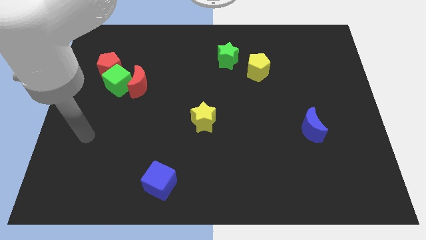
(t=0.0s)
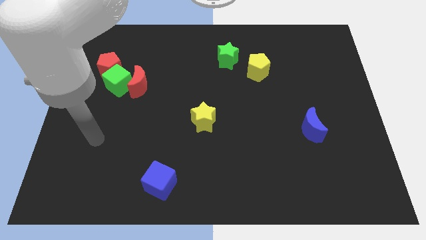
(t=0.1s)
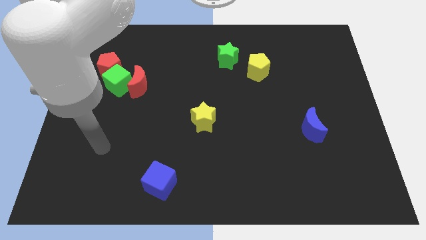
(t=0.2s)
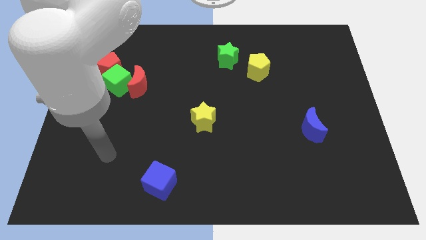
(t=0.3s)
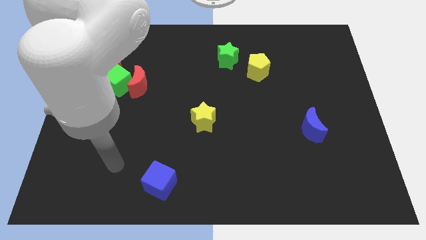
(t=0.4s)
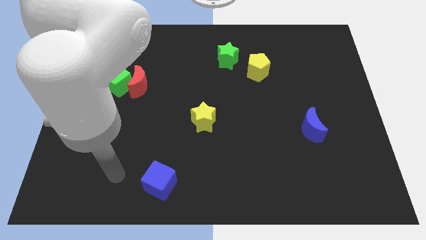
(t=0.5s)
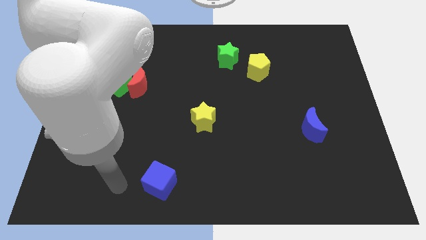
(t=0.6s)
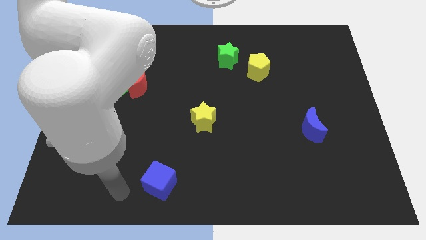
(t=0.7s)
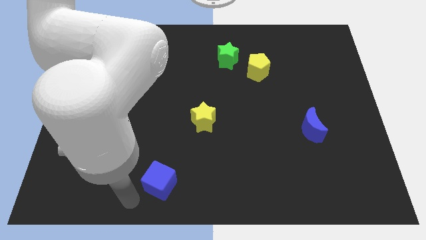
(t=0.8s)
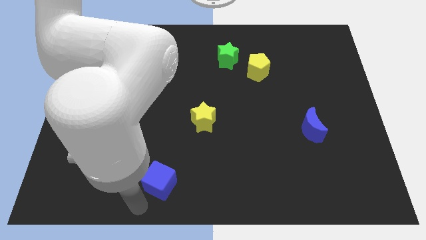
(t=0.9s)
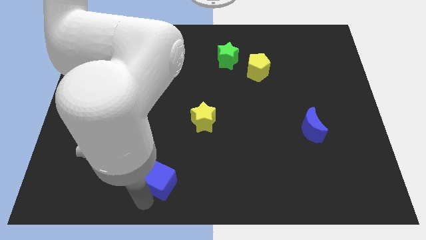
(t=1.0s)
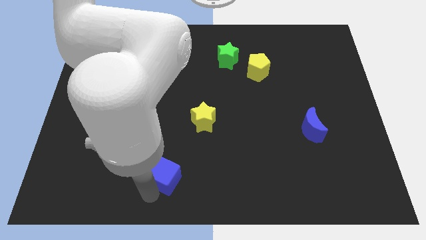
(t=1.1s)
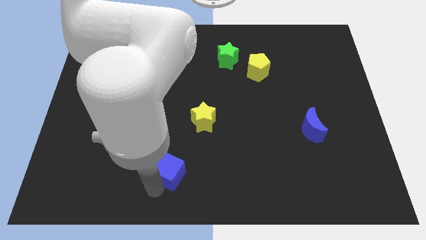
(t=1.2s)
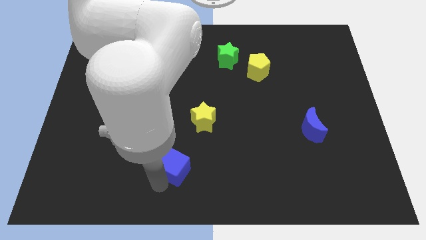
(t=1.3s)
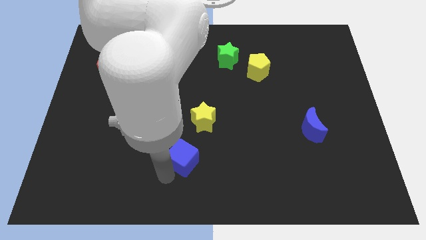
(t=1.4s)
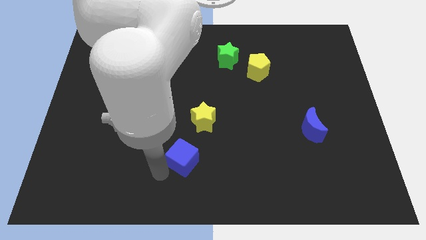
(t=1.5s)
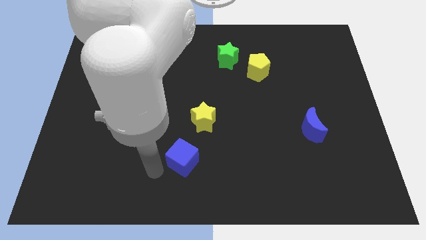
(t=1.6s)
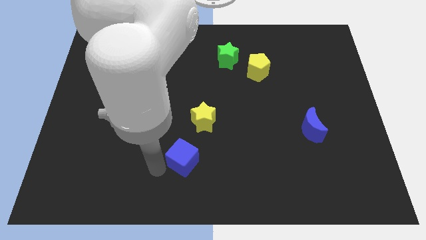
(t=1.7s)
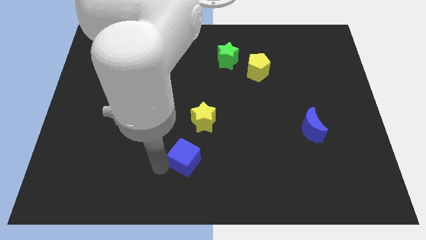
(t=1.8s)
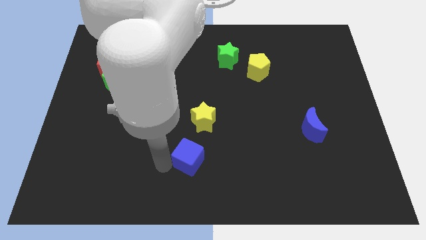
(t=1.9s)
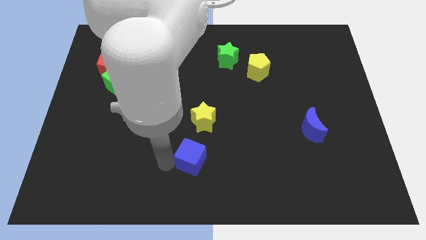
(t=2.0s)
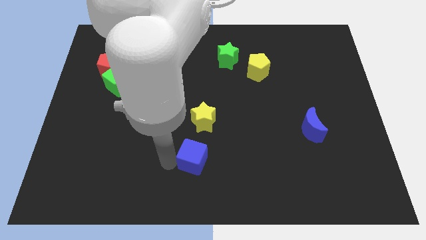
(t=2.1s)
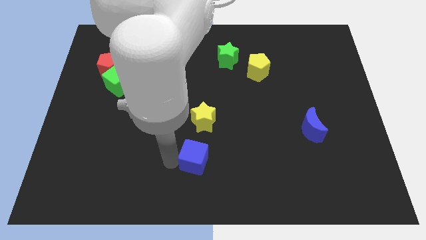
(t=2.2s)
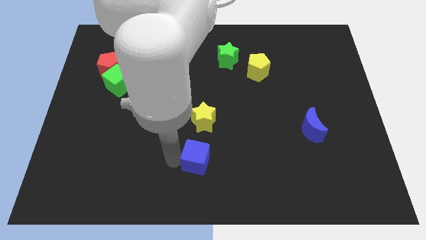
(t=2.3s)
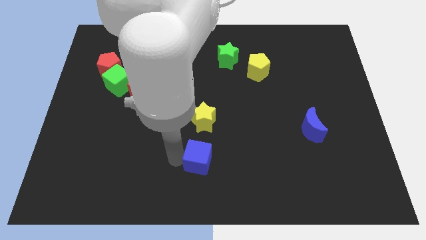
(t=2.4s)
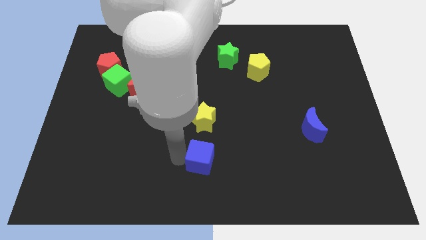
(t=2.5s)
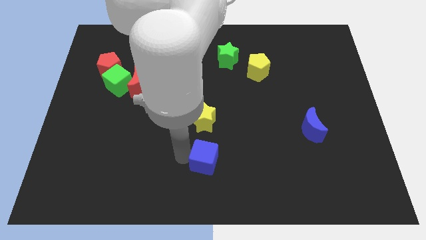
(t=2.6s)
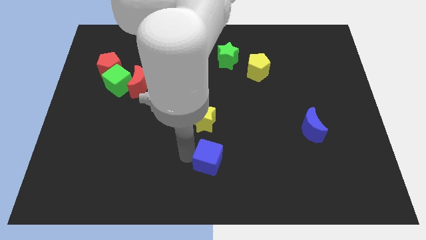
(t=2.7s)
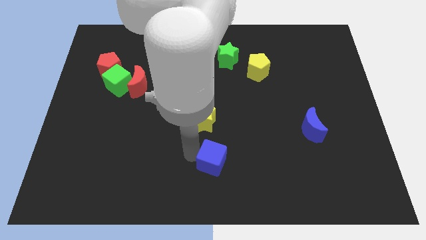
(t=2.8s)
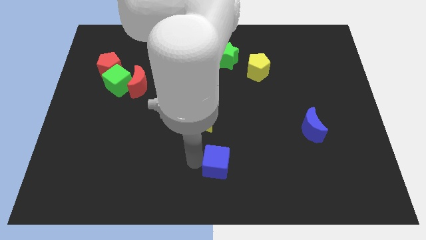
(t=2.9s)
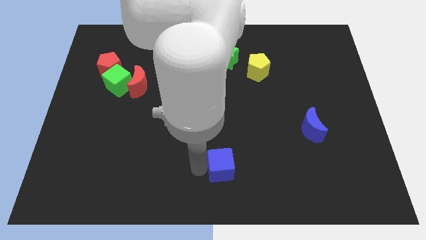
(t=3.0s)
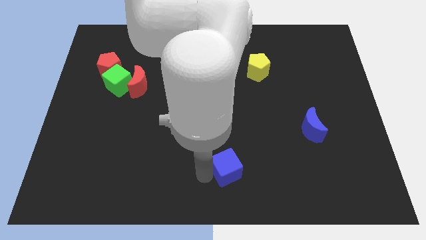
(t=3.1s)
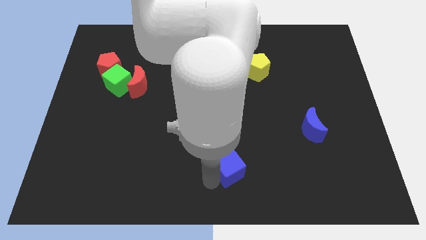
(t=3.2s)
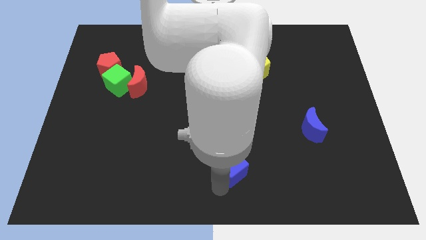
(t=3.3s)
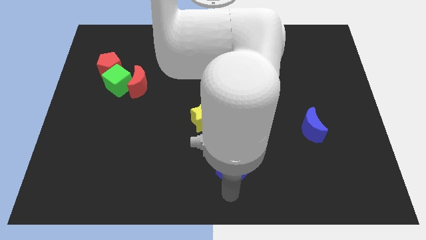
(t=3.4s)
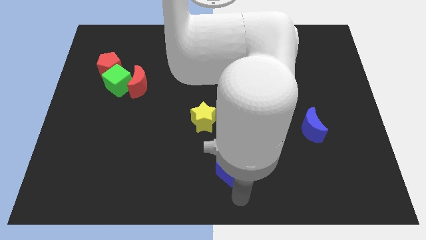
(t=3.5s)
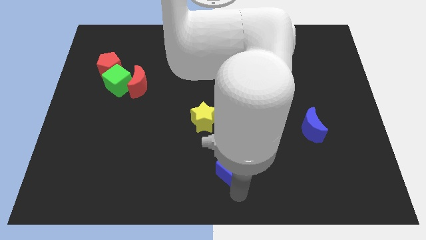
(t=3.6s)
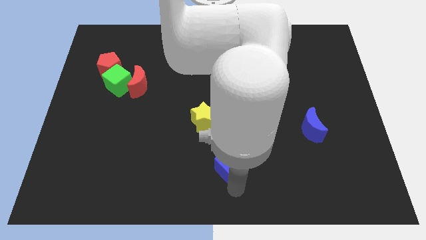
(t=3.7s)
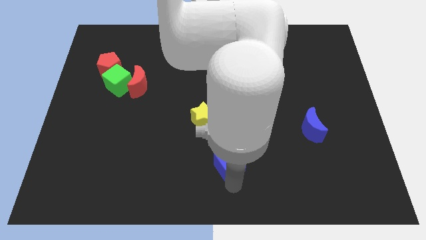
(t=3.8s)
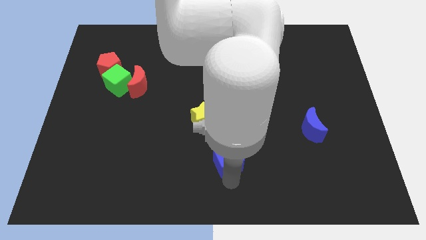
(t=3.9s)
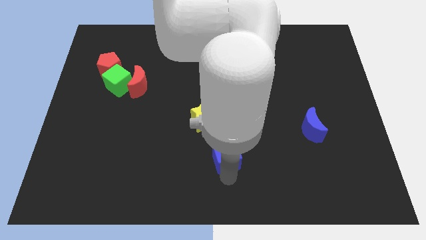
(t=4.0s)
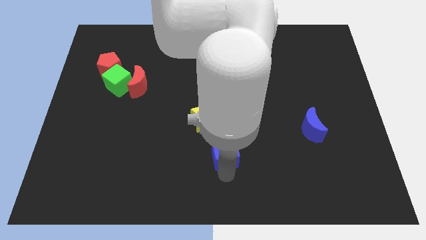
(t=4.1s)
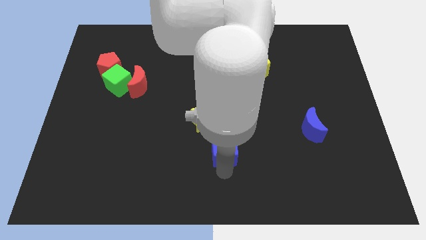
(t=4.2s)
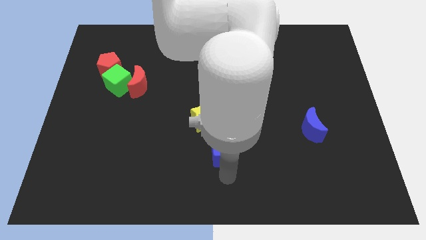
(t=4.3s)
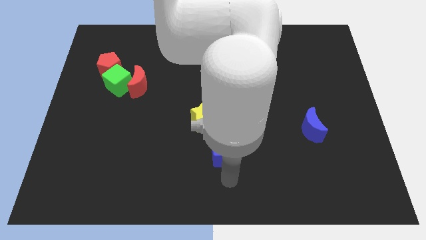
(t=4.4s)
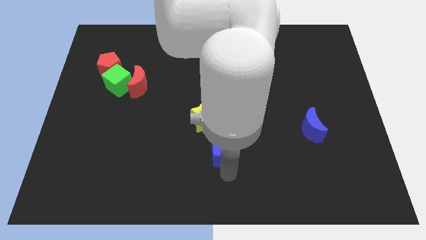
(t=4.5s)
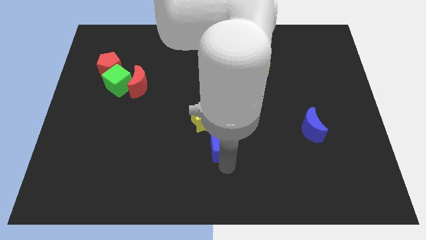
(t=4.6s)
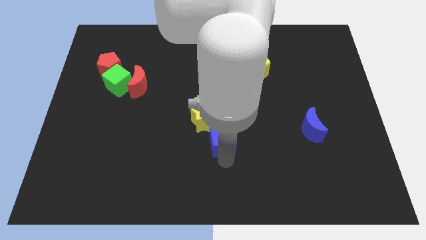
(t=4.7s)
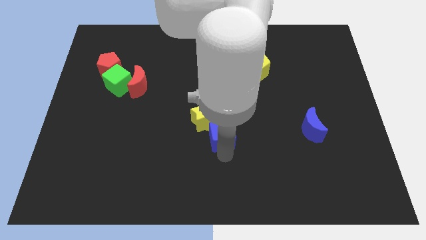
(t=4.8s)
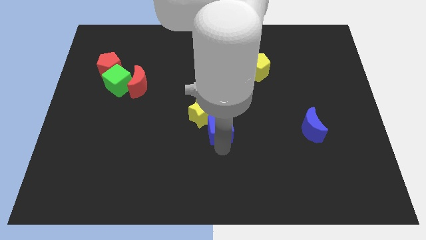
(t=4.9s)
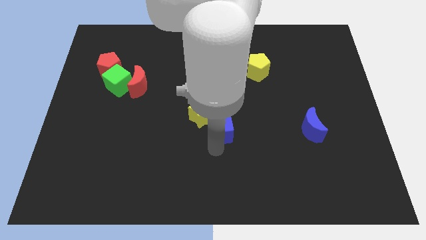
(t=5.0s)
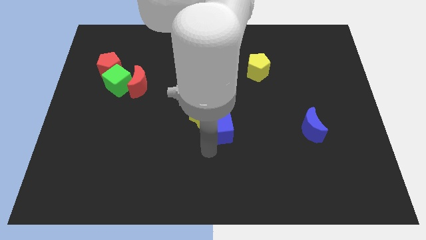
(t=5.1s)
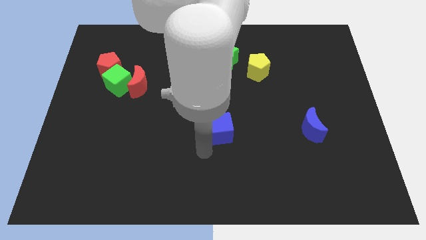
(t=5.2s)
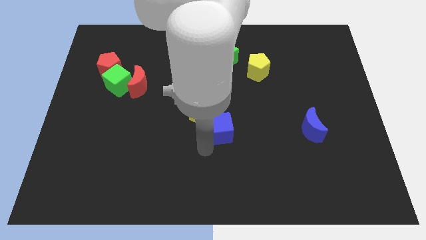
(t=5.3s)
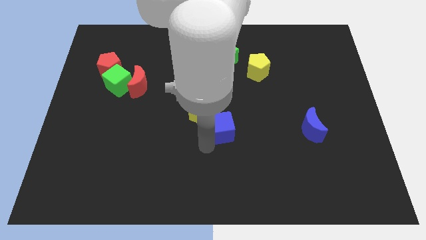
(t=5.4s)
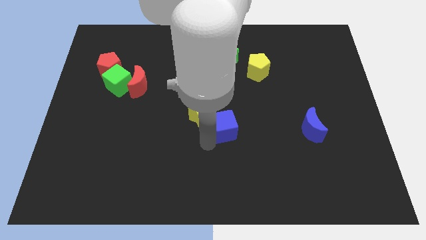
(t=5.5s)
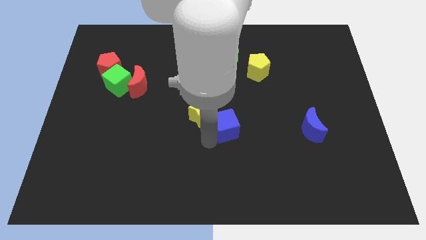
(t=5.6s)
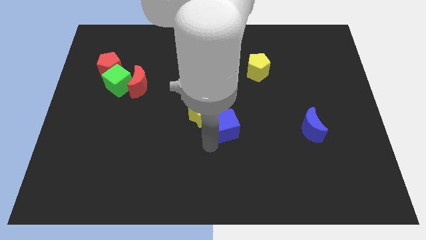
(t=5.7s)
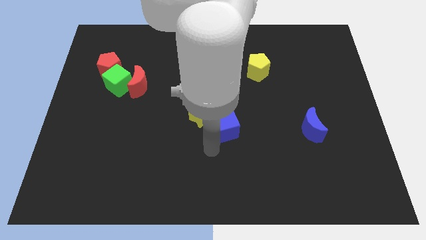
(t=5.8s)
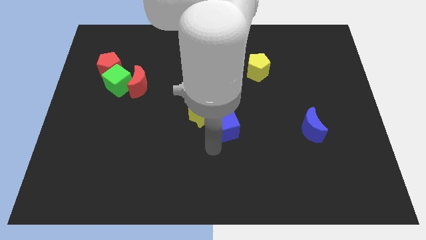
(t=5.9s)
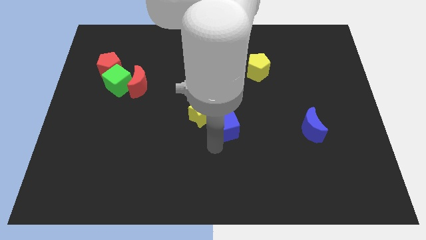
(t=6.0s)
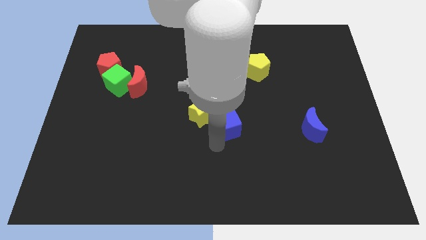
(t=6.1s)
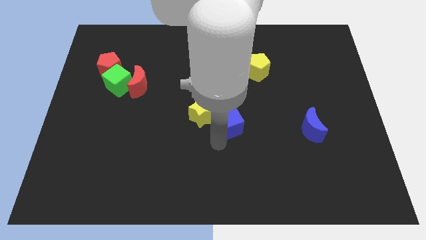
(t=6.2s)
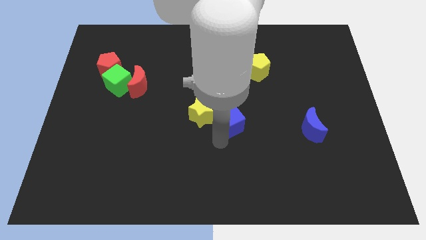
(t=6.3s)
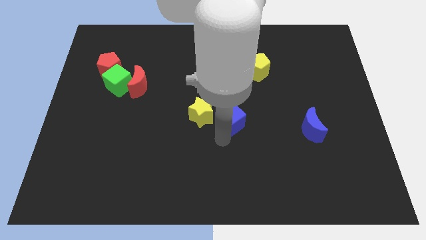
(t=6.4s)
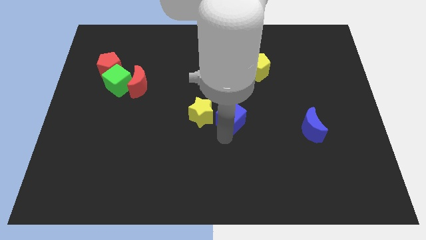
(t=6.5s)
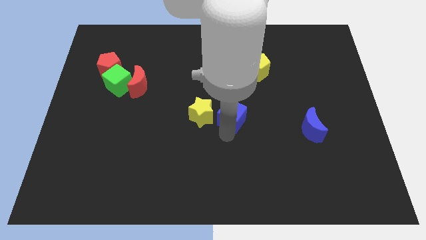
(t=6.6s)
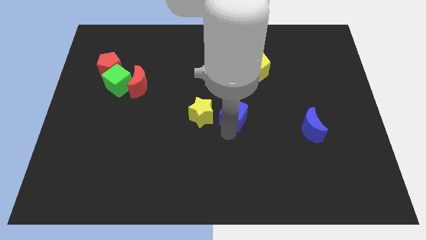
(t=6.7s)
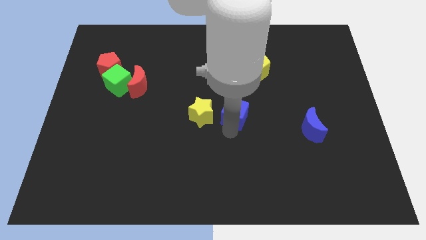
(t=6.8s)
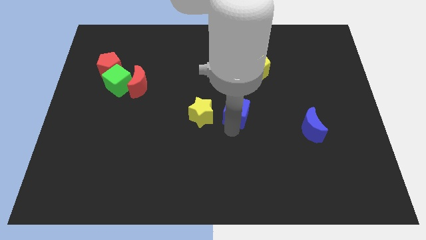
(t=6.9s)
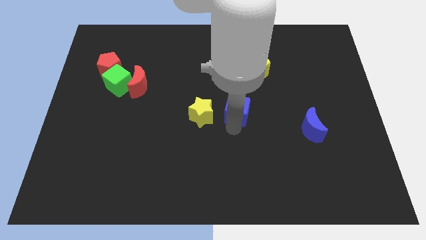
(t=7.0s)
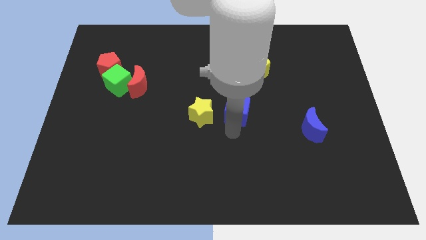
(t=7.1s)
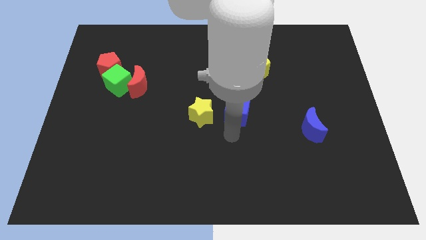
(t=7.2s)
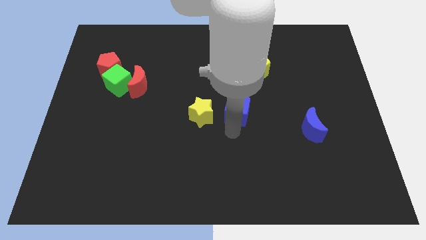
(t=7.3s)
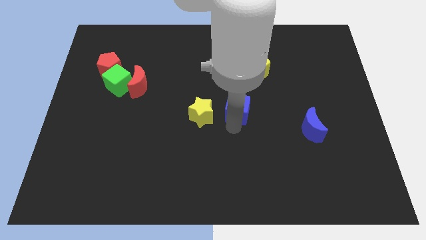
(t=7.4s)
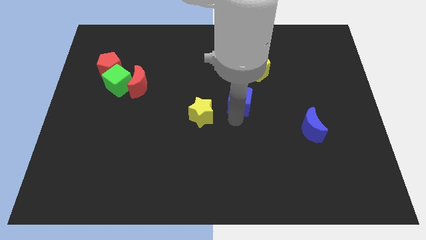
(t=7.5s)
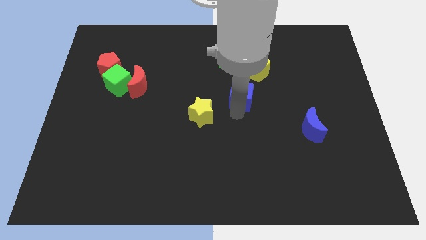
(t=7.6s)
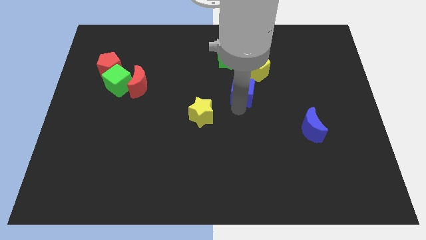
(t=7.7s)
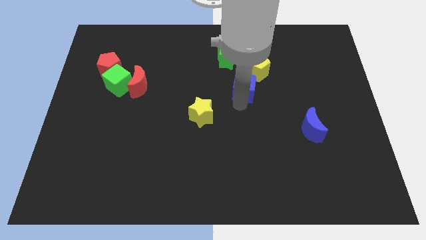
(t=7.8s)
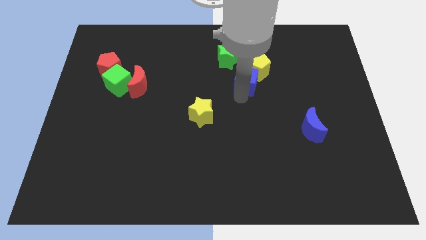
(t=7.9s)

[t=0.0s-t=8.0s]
move the blue cube close to the yellow pentagon
